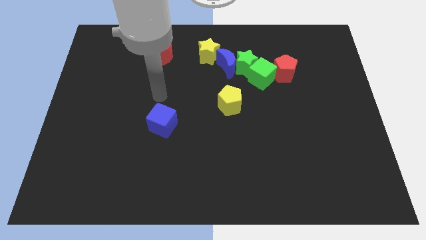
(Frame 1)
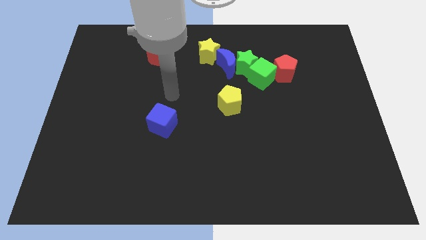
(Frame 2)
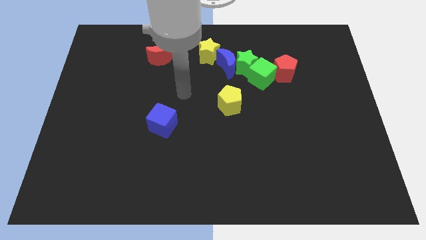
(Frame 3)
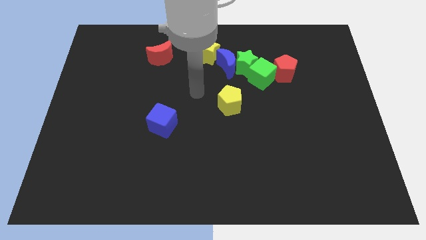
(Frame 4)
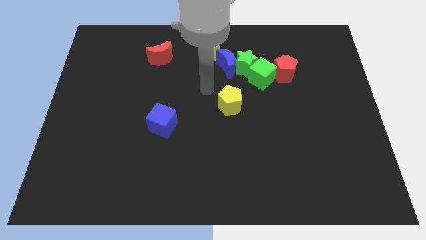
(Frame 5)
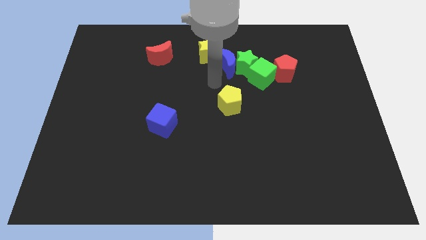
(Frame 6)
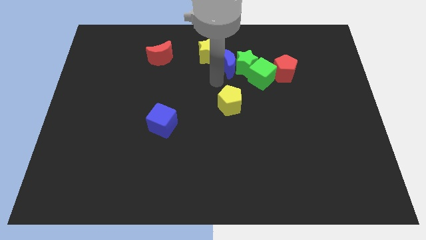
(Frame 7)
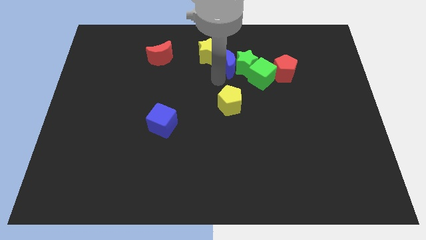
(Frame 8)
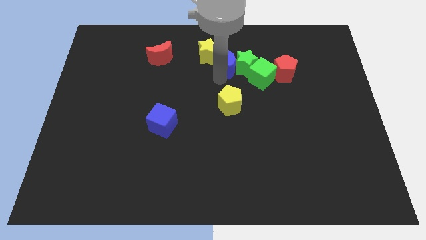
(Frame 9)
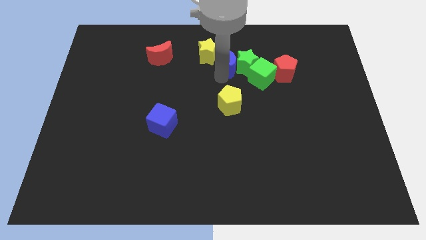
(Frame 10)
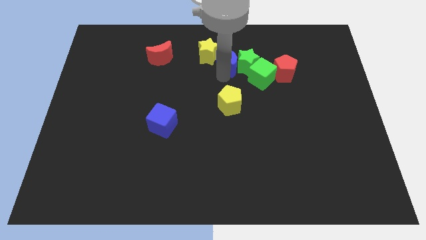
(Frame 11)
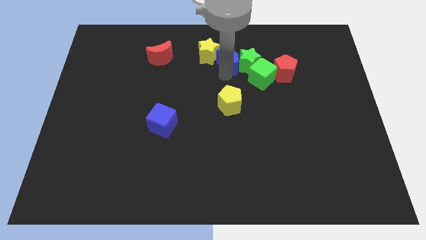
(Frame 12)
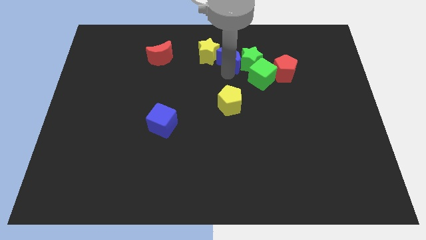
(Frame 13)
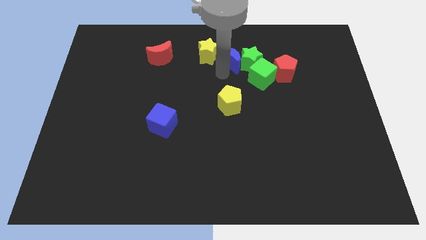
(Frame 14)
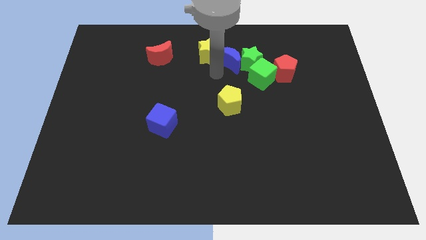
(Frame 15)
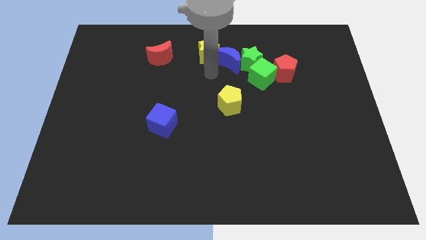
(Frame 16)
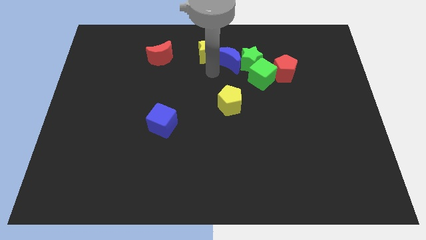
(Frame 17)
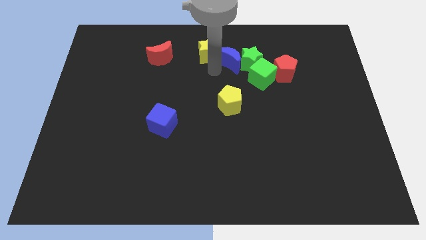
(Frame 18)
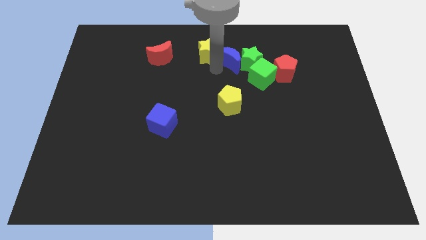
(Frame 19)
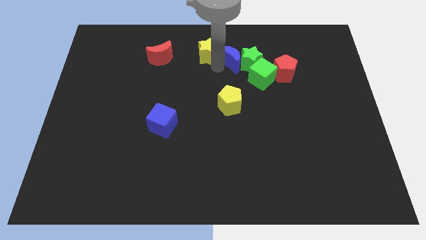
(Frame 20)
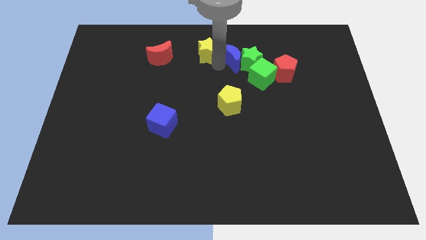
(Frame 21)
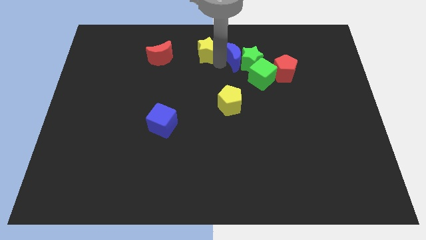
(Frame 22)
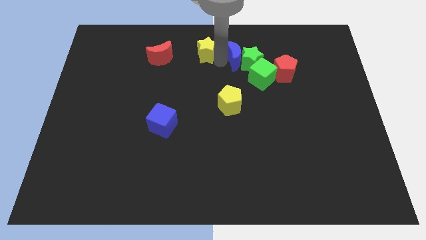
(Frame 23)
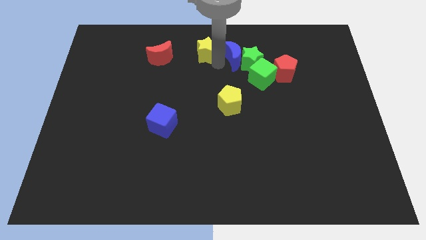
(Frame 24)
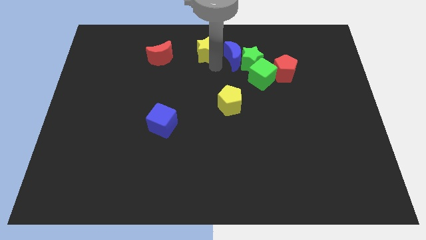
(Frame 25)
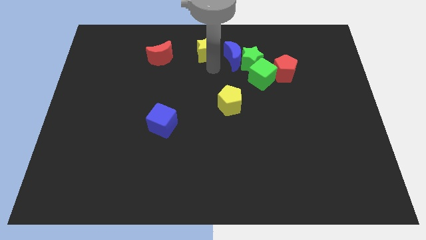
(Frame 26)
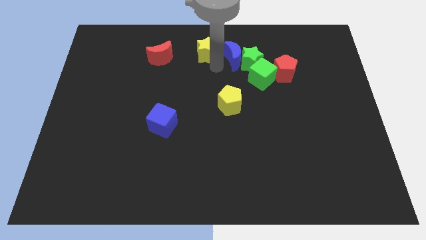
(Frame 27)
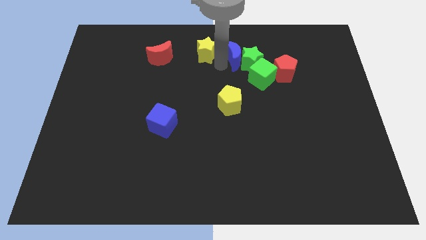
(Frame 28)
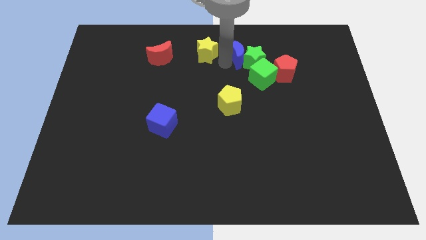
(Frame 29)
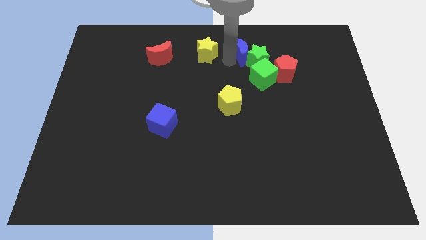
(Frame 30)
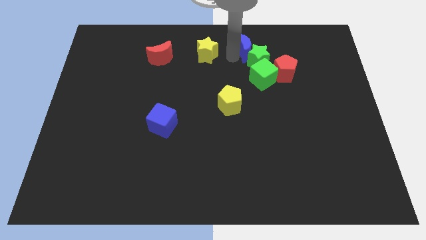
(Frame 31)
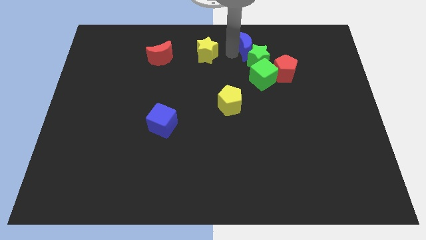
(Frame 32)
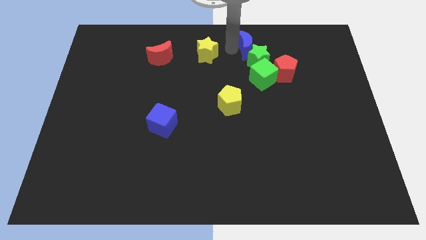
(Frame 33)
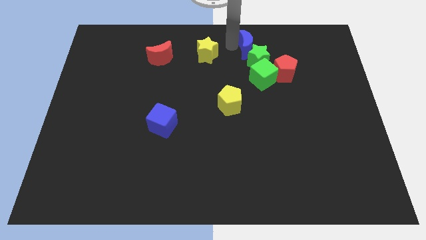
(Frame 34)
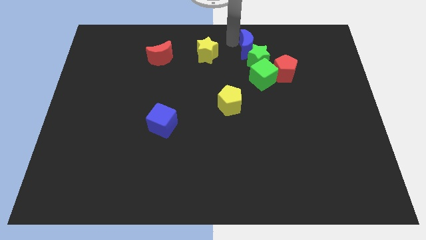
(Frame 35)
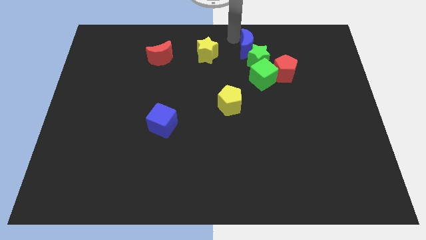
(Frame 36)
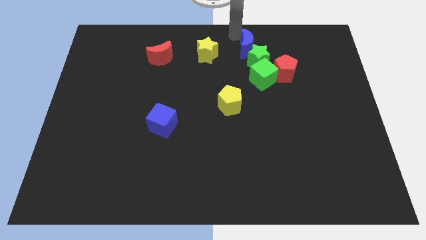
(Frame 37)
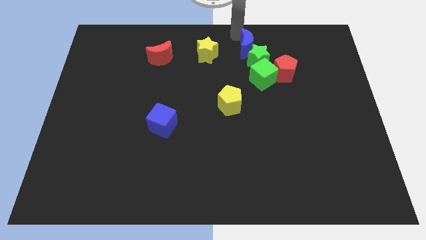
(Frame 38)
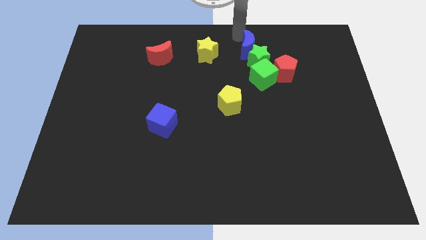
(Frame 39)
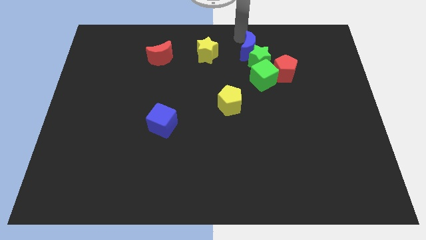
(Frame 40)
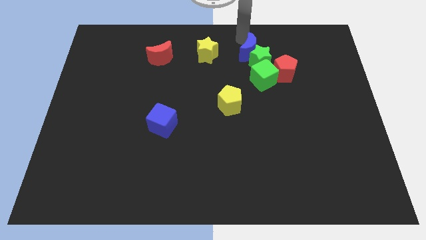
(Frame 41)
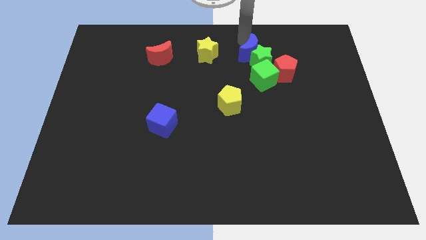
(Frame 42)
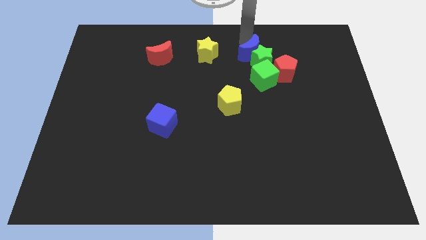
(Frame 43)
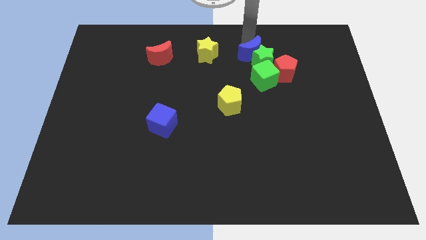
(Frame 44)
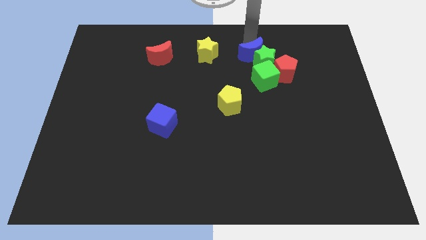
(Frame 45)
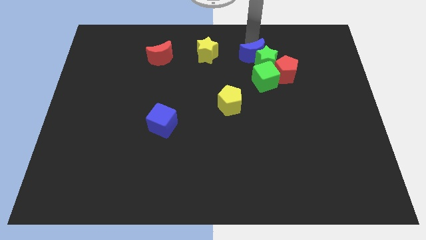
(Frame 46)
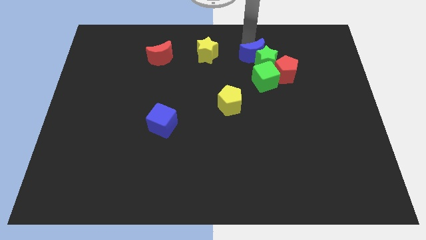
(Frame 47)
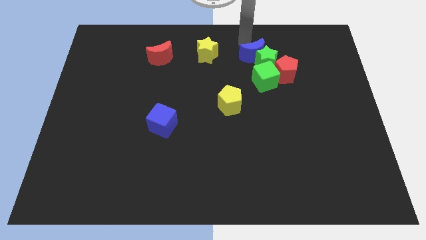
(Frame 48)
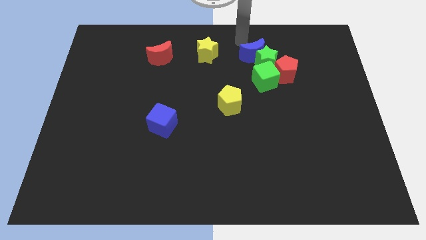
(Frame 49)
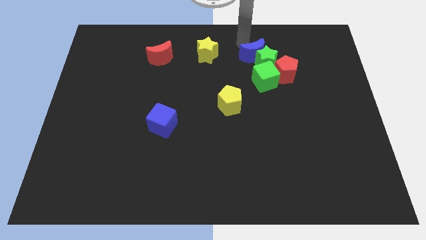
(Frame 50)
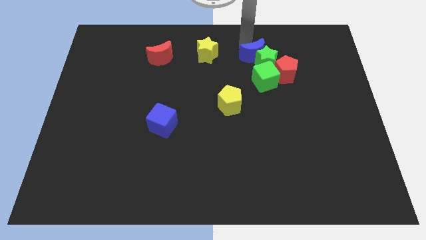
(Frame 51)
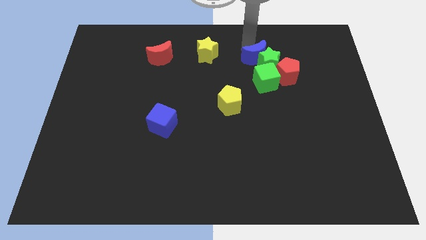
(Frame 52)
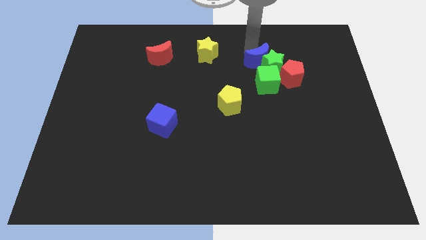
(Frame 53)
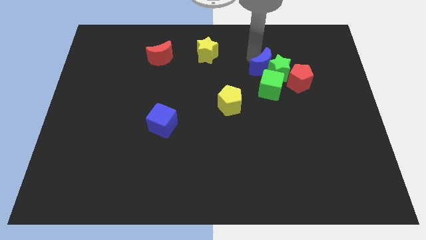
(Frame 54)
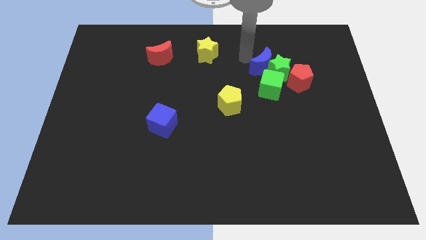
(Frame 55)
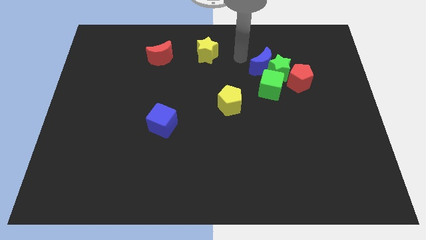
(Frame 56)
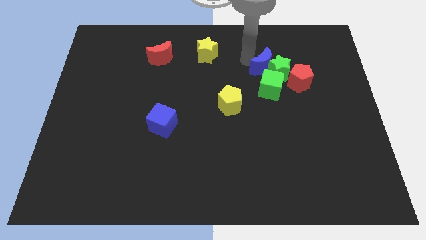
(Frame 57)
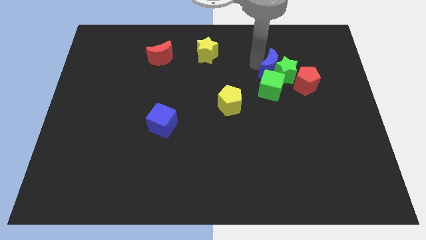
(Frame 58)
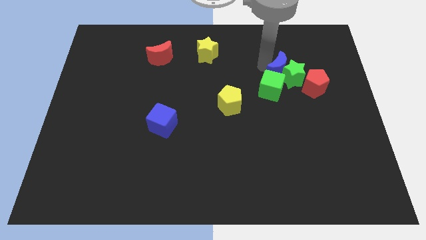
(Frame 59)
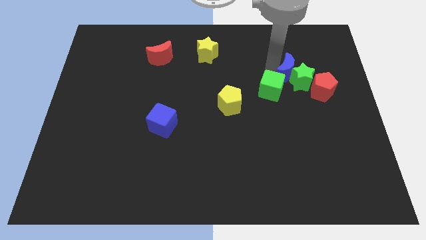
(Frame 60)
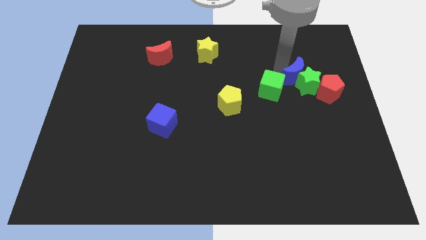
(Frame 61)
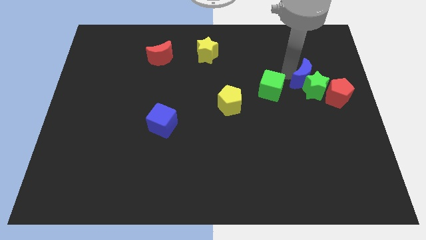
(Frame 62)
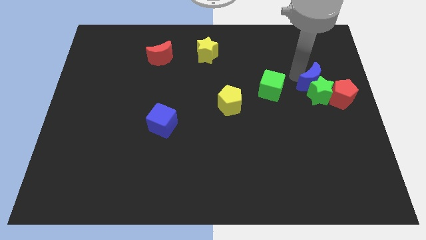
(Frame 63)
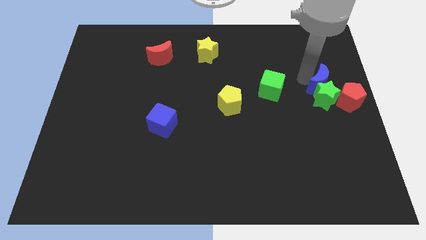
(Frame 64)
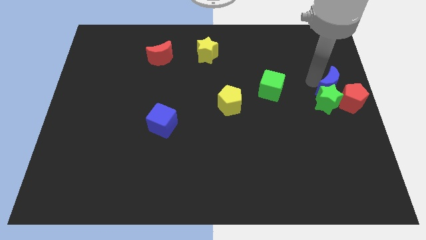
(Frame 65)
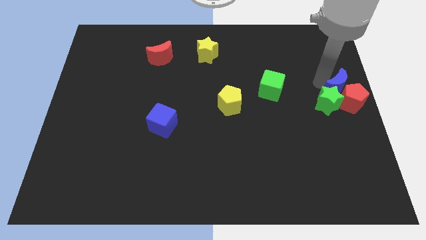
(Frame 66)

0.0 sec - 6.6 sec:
put the blue moon to the red pentagon

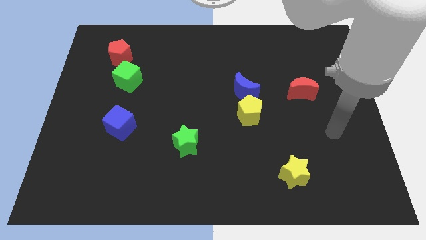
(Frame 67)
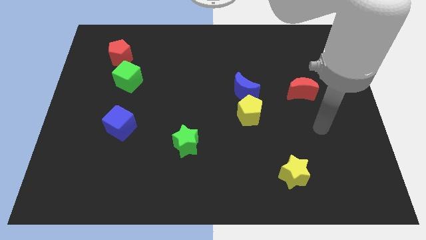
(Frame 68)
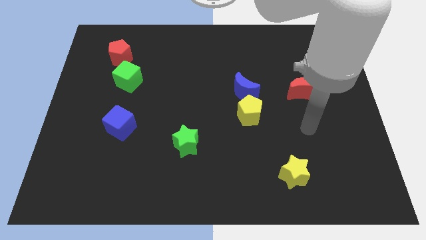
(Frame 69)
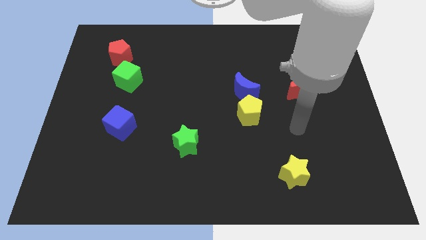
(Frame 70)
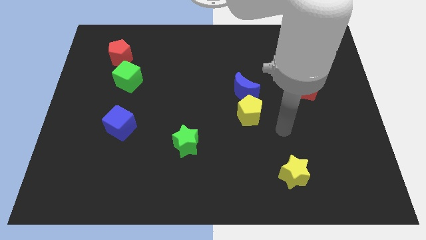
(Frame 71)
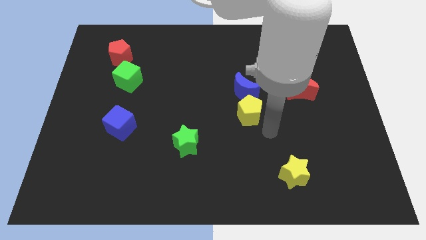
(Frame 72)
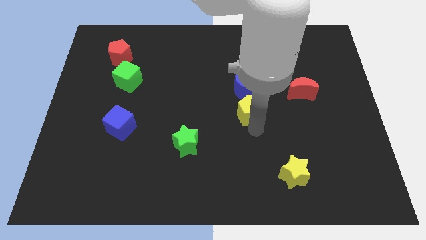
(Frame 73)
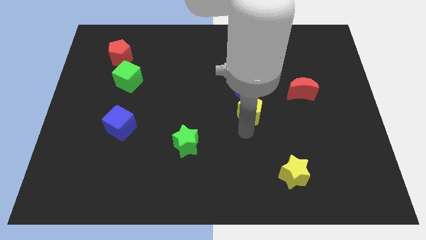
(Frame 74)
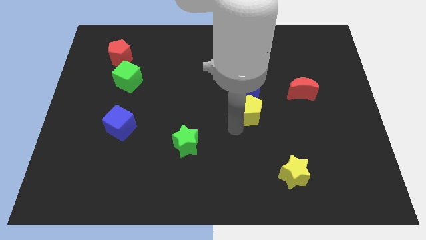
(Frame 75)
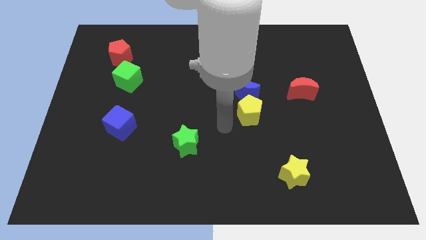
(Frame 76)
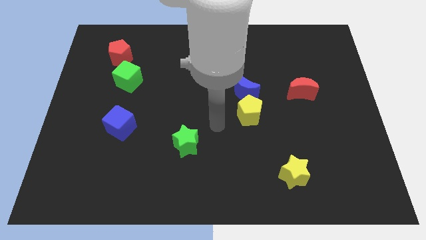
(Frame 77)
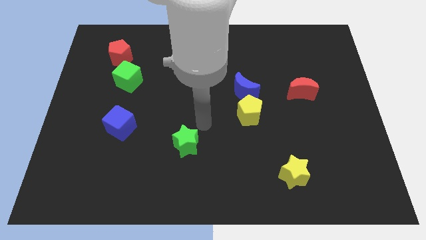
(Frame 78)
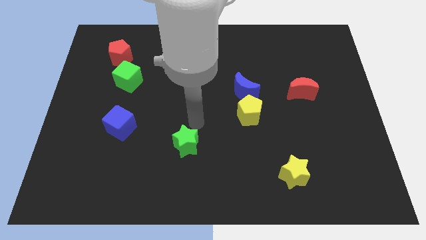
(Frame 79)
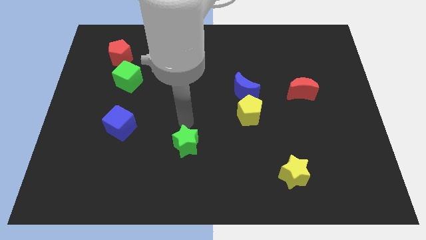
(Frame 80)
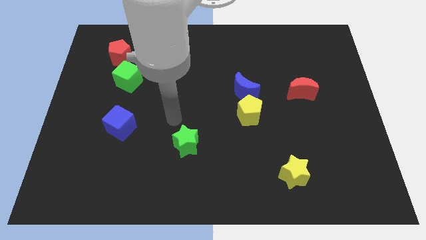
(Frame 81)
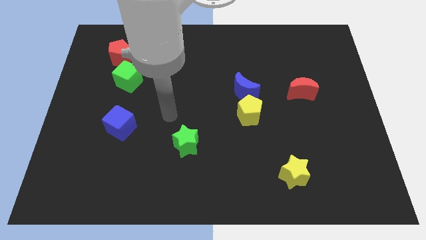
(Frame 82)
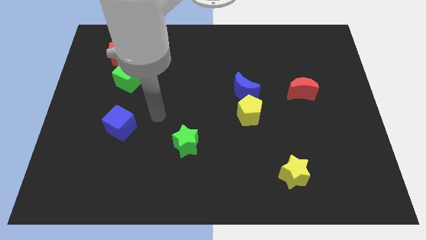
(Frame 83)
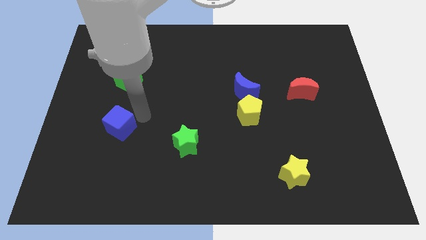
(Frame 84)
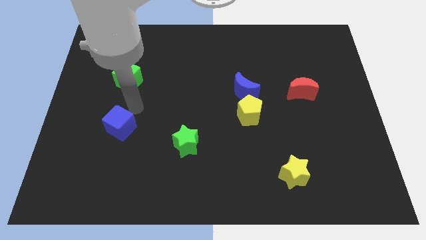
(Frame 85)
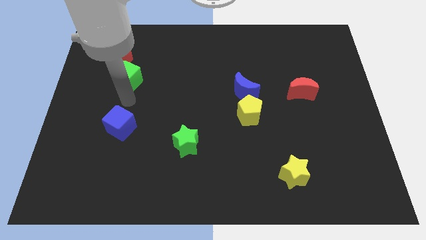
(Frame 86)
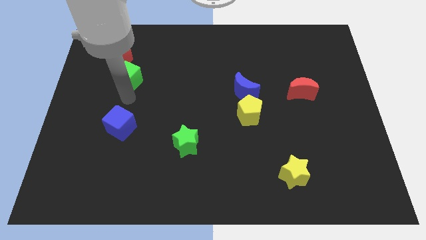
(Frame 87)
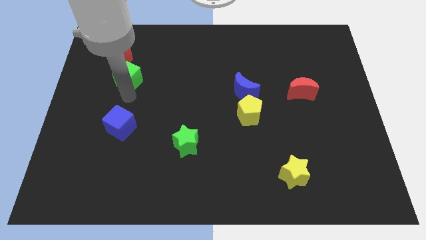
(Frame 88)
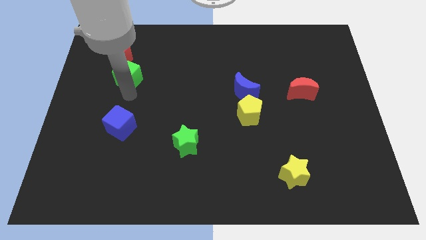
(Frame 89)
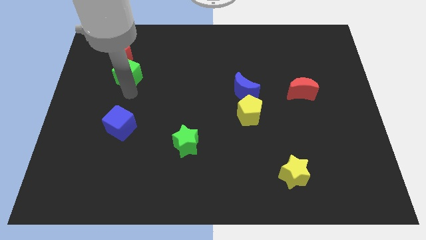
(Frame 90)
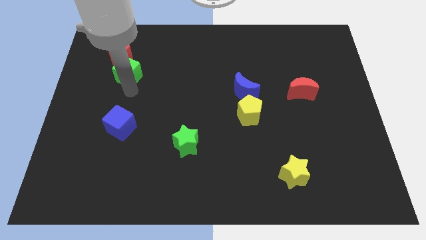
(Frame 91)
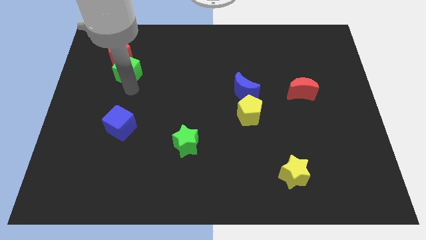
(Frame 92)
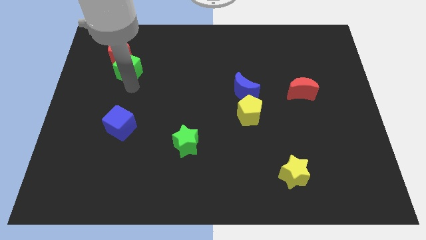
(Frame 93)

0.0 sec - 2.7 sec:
move the green cube to the red pentagon
